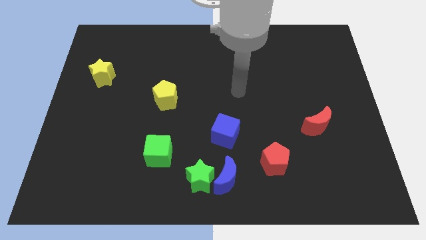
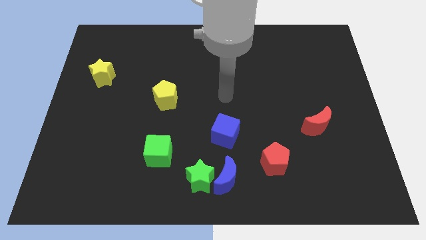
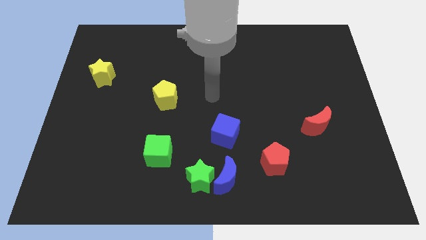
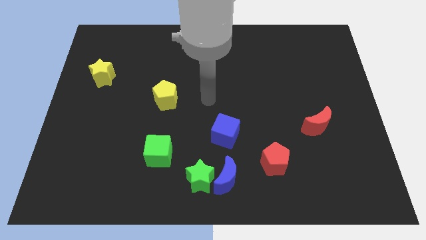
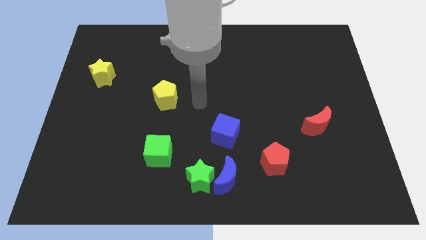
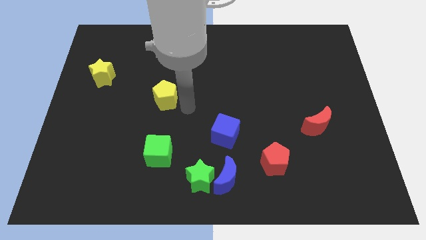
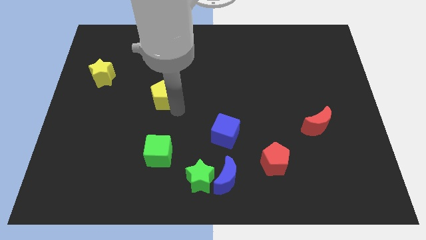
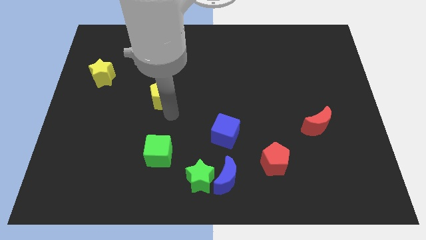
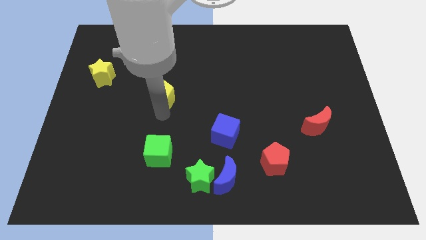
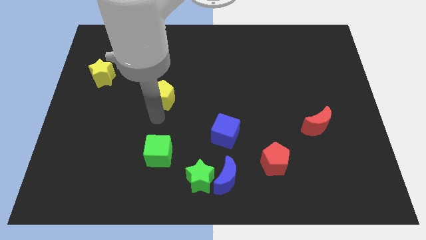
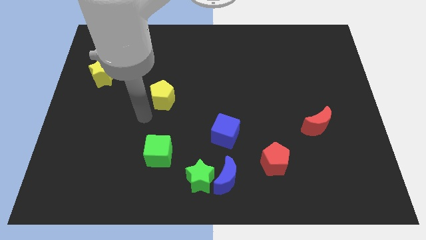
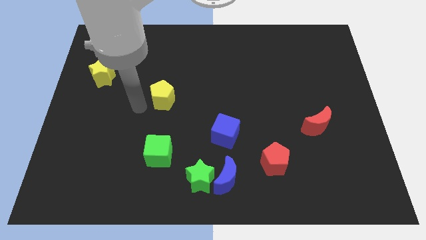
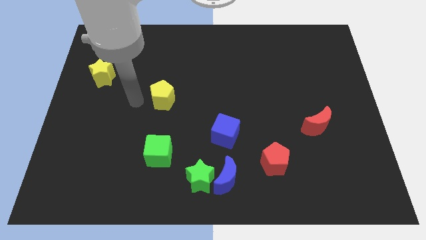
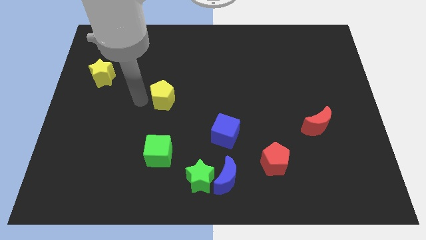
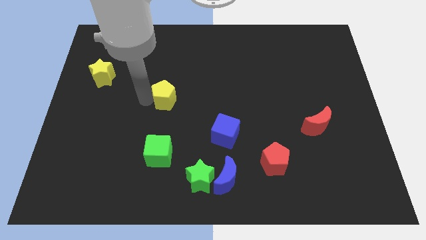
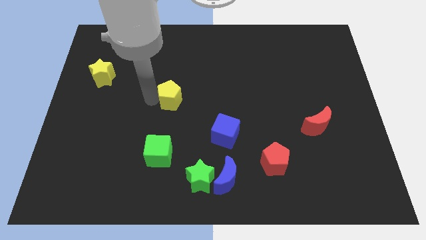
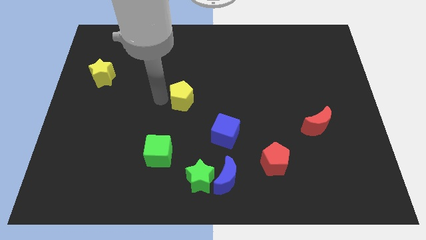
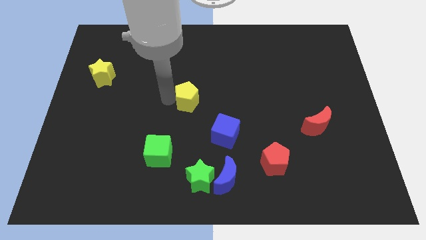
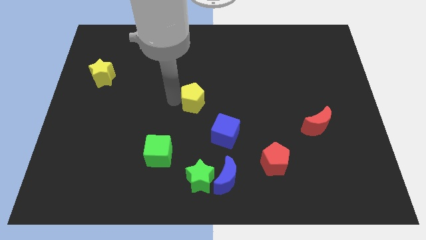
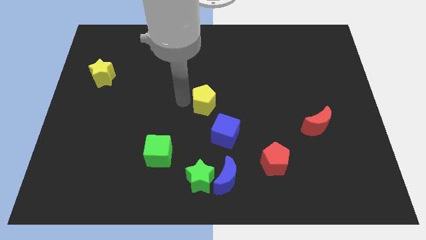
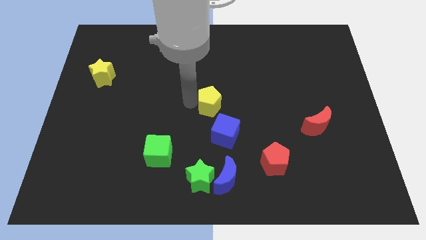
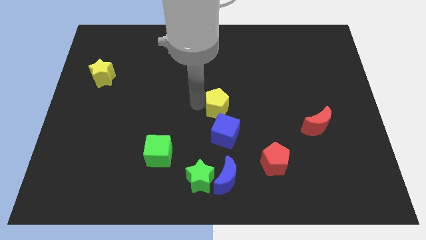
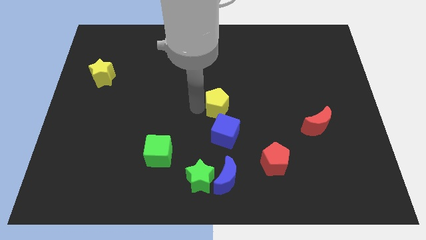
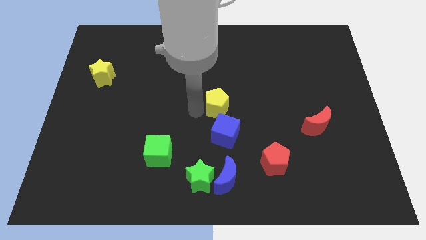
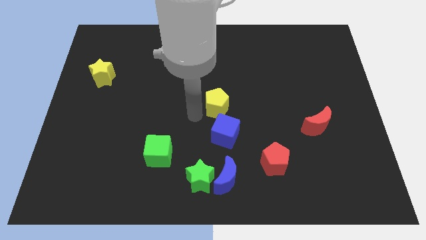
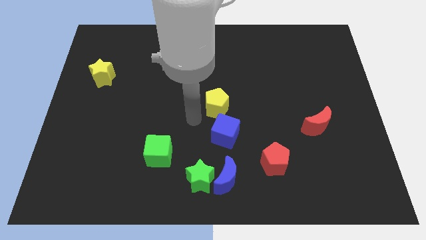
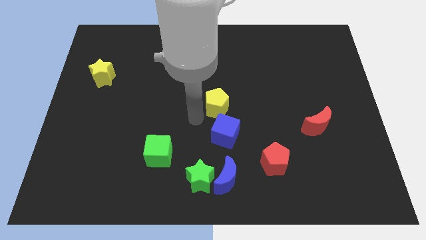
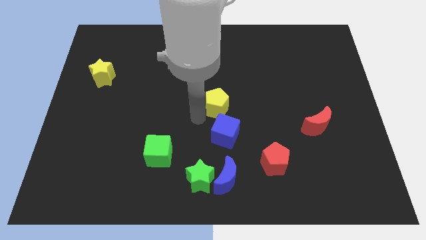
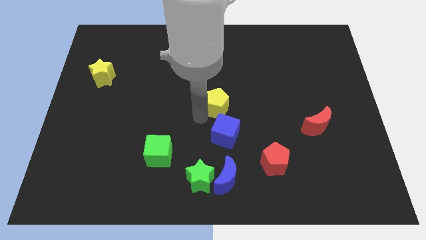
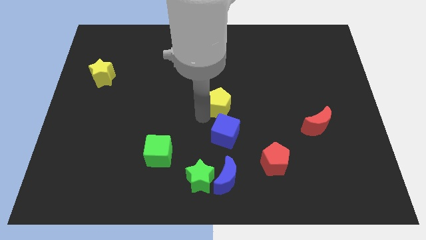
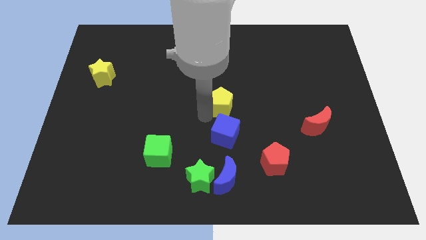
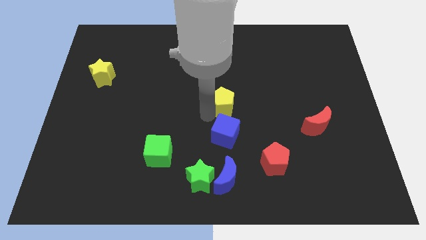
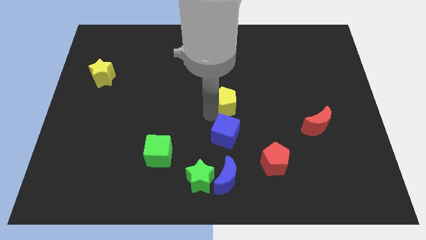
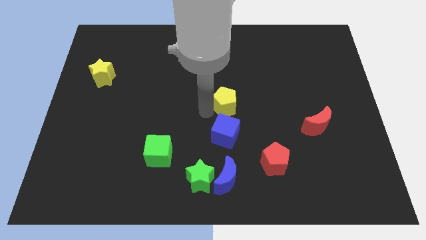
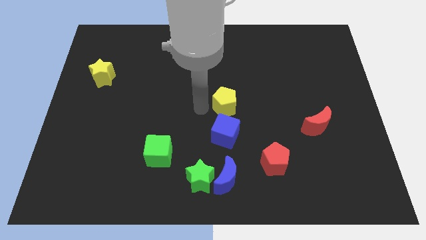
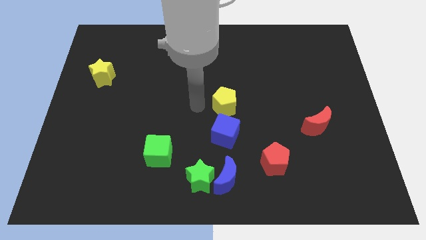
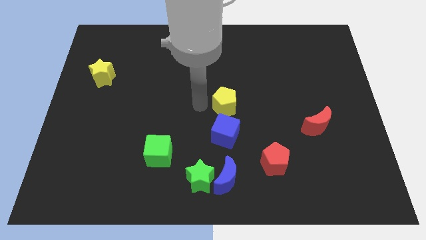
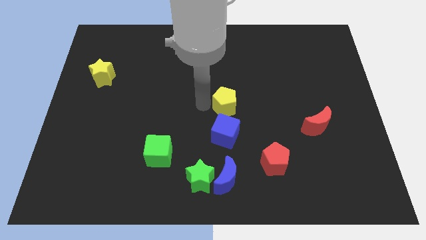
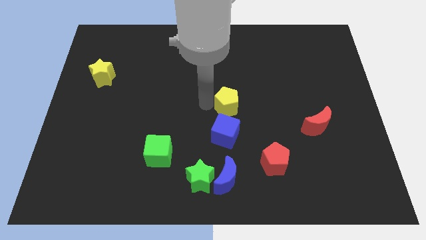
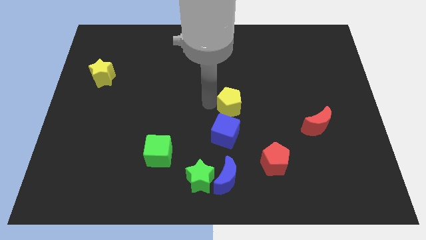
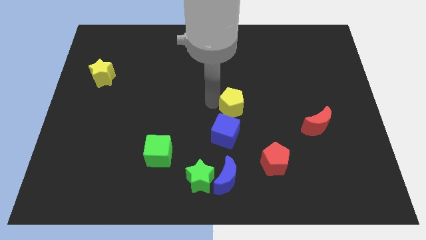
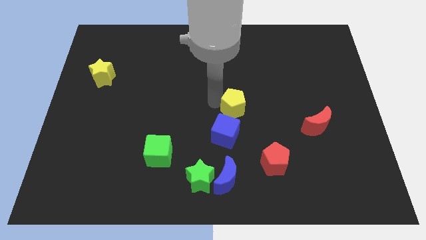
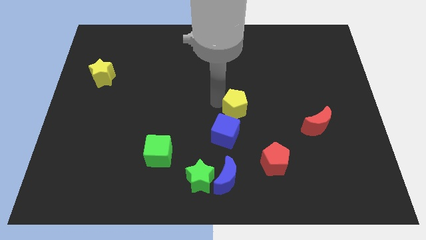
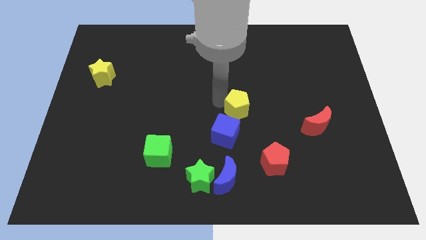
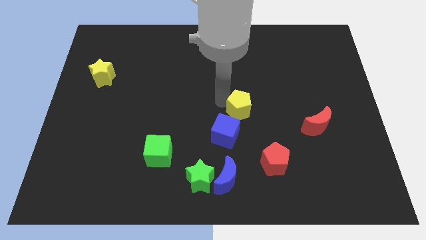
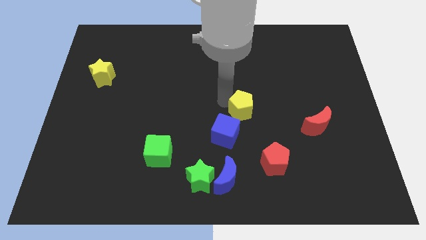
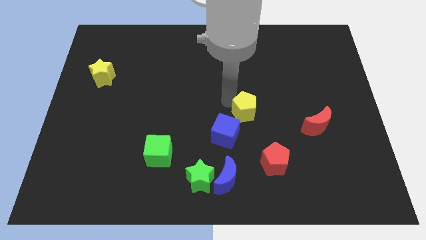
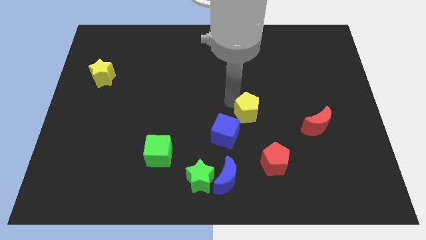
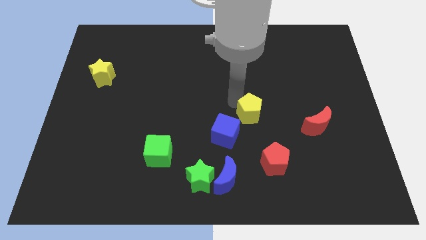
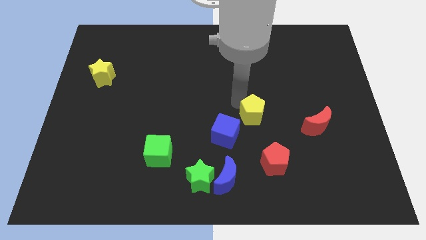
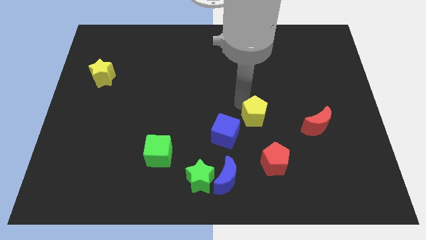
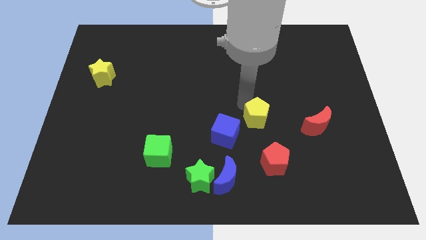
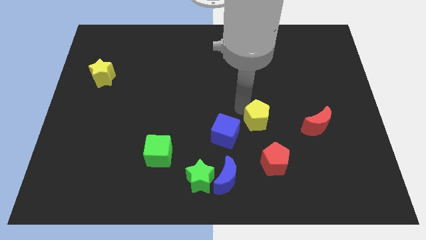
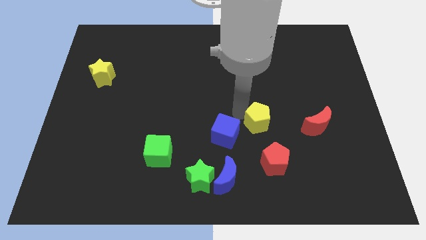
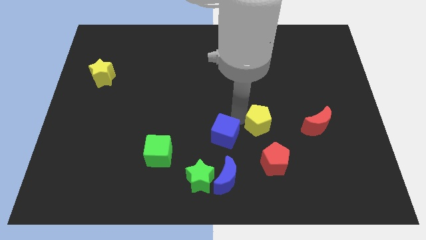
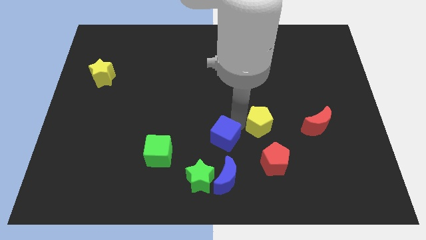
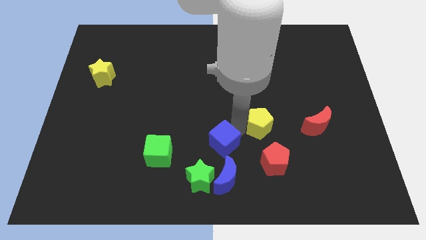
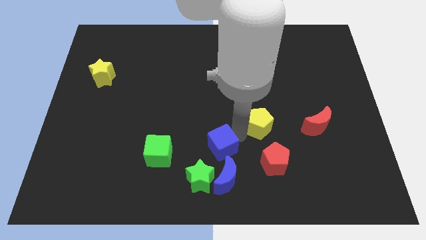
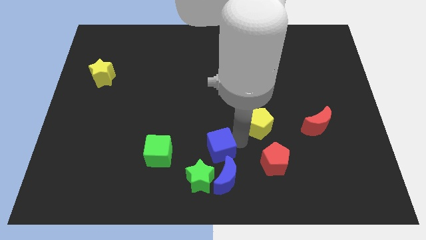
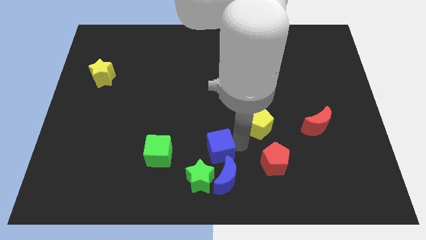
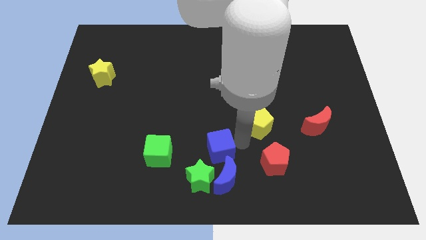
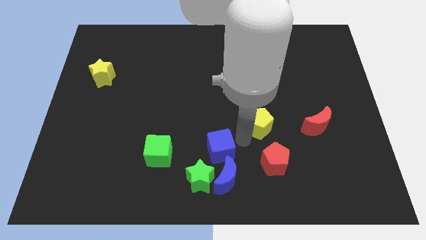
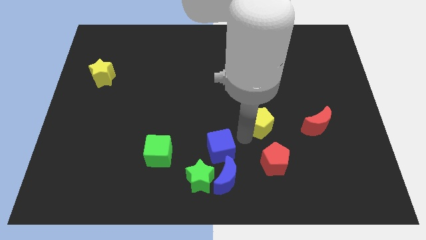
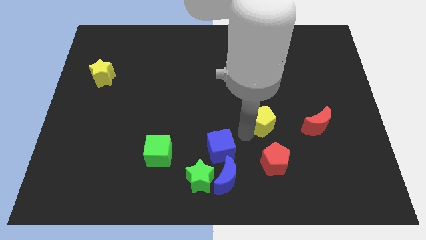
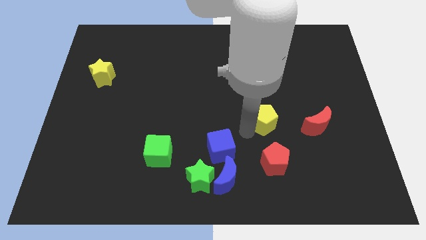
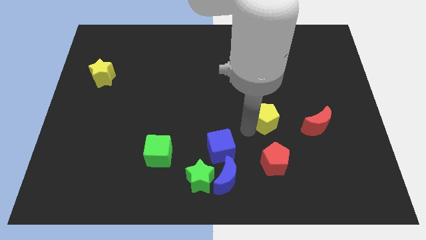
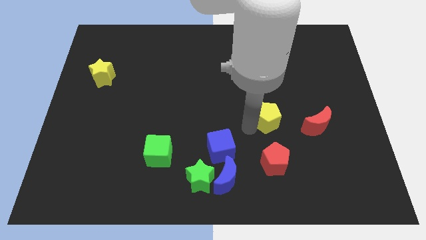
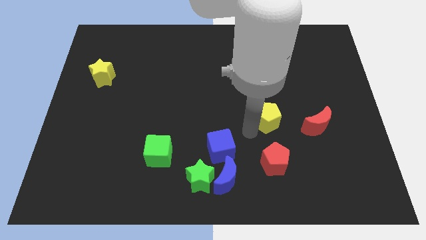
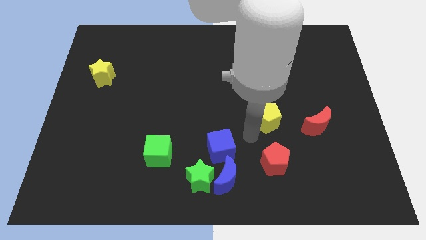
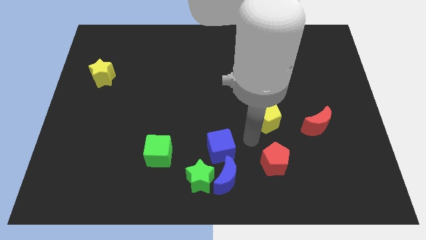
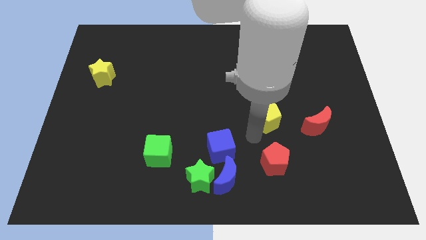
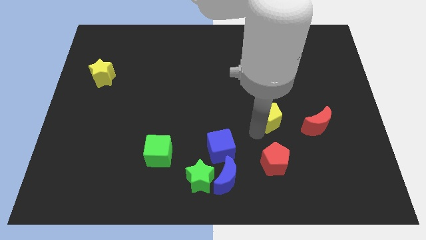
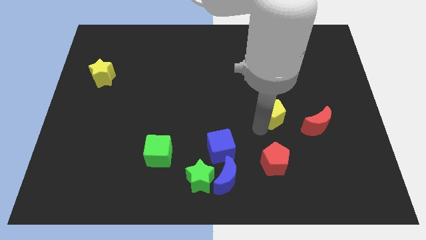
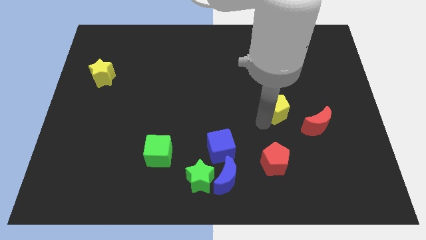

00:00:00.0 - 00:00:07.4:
slide the yellow pentagon diagonally up and to the left of the red moon
